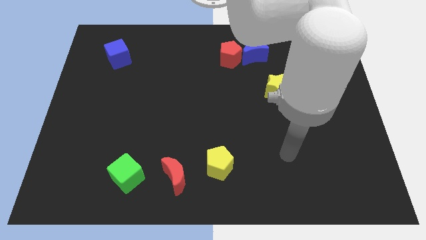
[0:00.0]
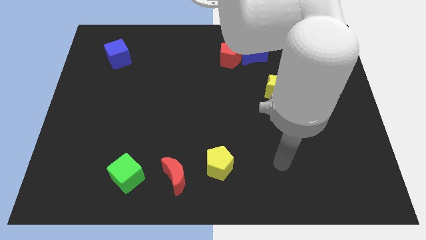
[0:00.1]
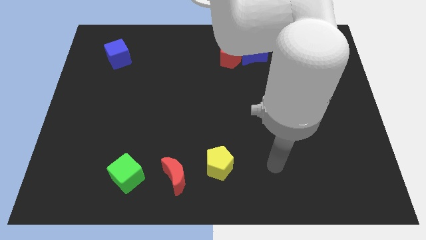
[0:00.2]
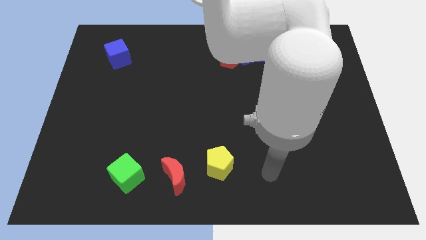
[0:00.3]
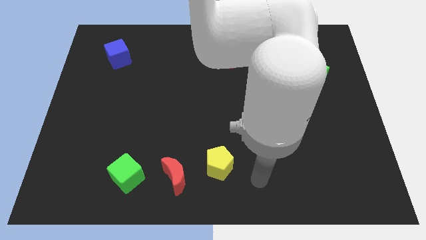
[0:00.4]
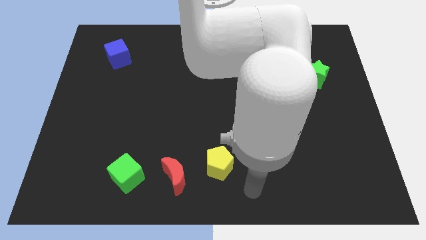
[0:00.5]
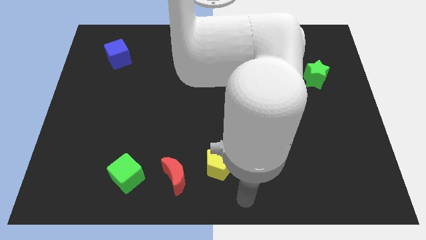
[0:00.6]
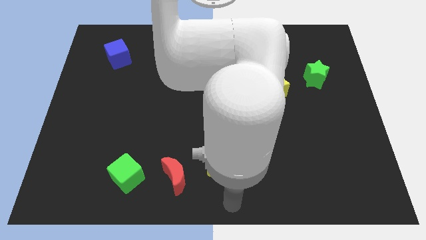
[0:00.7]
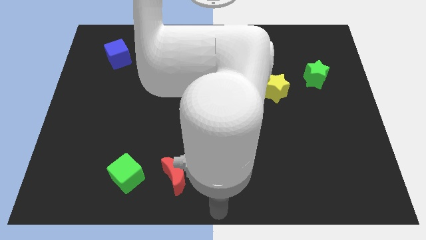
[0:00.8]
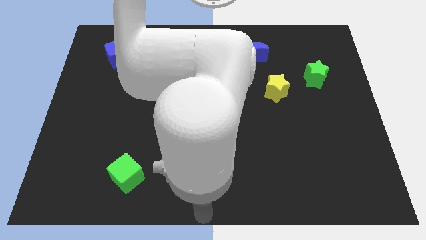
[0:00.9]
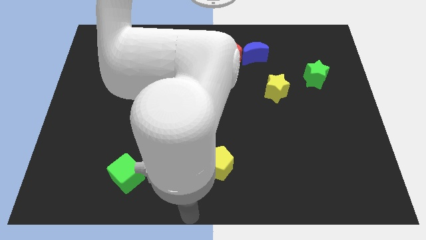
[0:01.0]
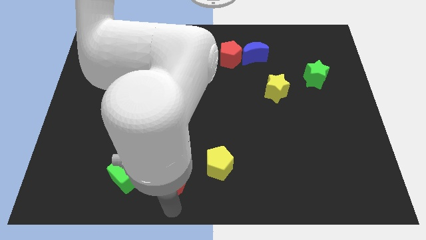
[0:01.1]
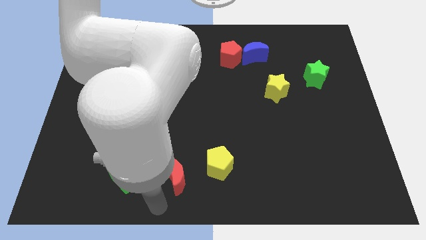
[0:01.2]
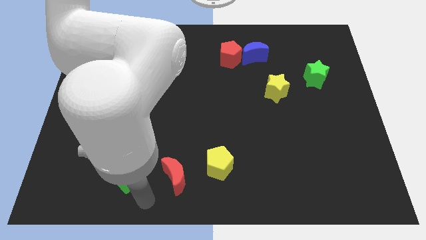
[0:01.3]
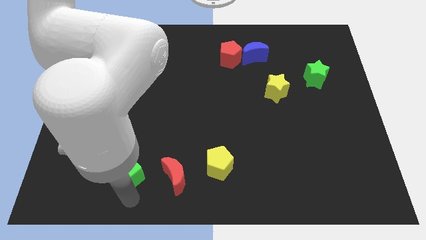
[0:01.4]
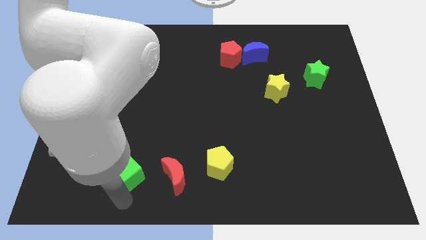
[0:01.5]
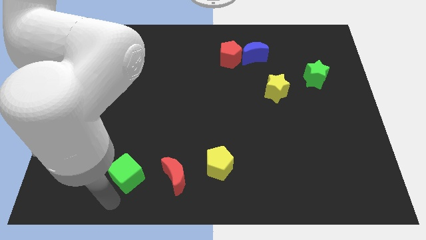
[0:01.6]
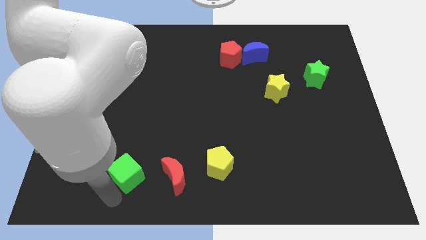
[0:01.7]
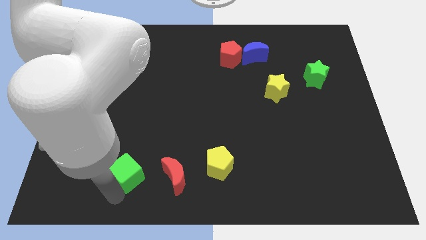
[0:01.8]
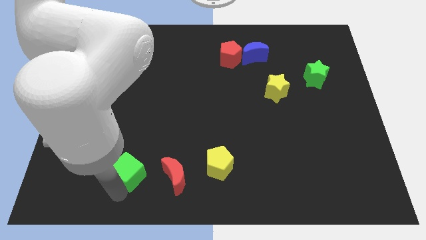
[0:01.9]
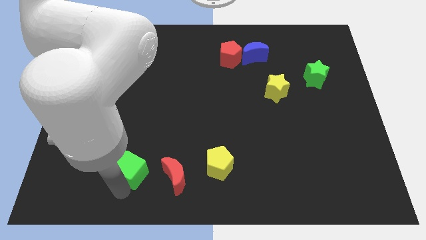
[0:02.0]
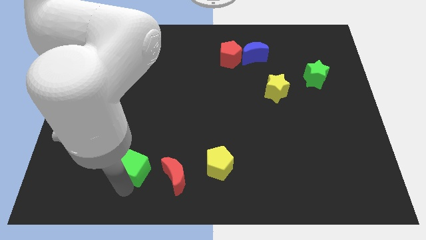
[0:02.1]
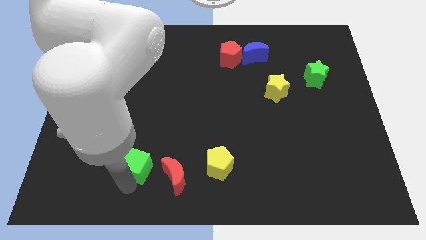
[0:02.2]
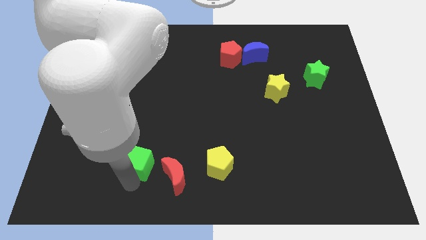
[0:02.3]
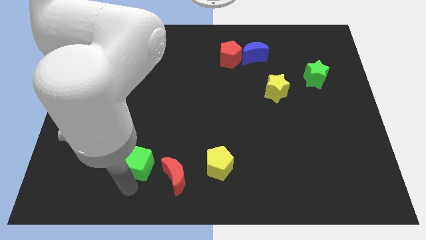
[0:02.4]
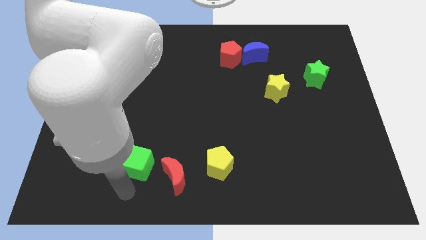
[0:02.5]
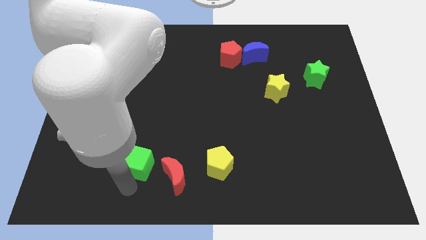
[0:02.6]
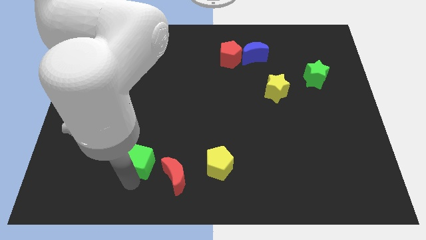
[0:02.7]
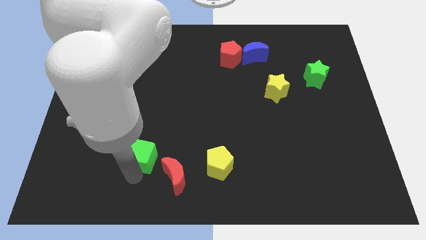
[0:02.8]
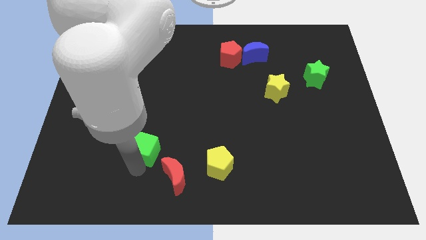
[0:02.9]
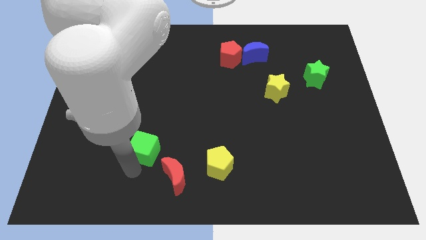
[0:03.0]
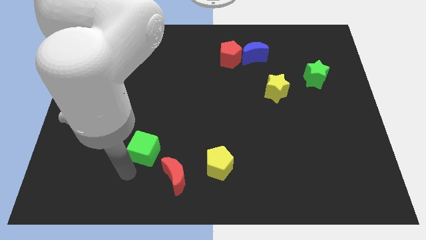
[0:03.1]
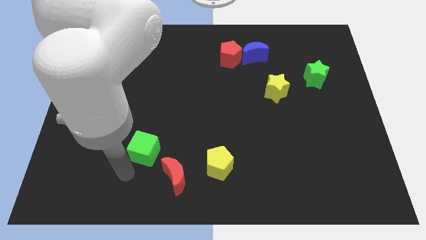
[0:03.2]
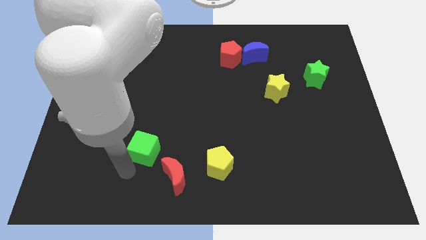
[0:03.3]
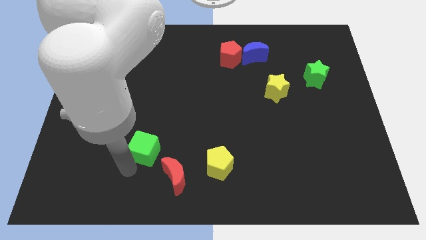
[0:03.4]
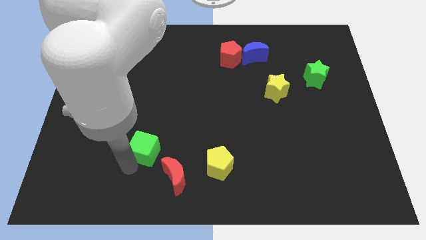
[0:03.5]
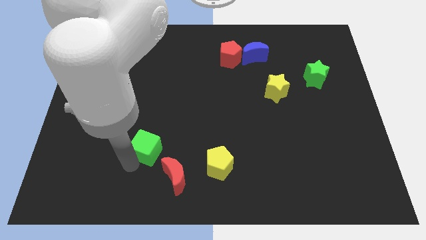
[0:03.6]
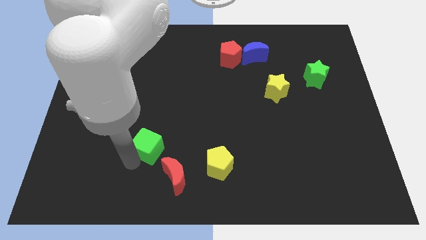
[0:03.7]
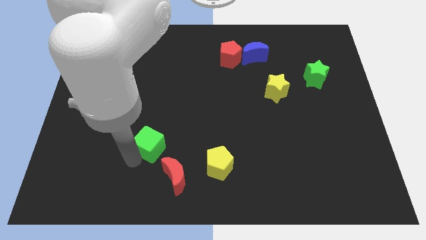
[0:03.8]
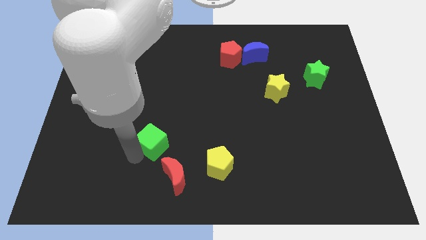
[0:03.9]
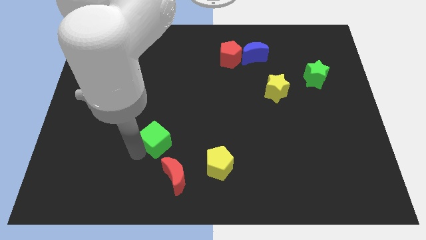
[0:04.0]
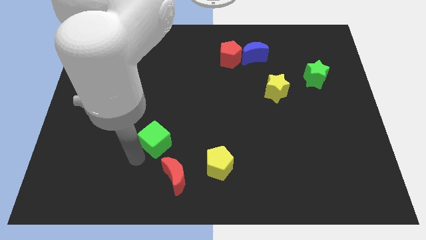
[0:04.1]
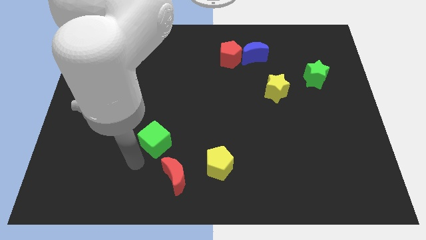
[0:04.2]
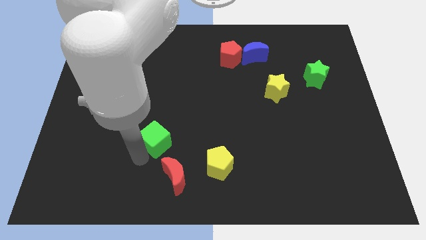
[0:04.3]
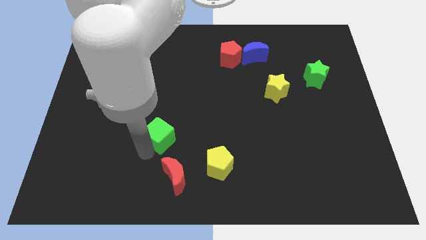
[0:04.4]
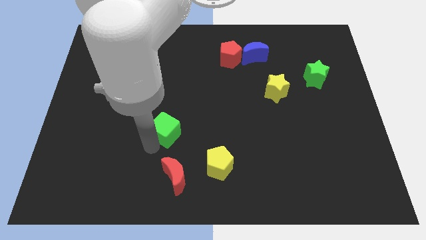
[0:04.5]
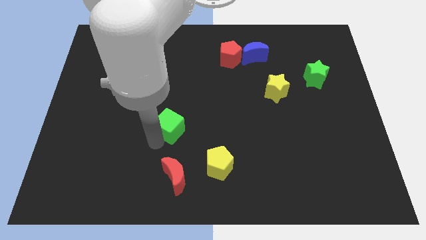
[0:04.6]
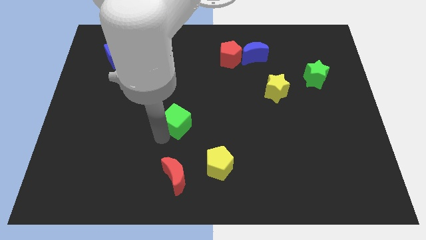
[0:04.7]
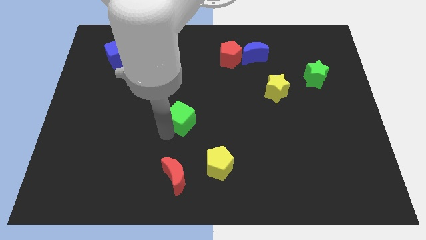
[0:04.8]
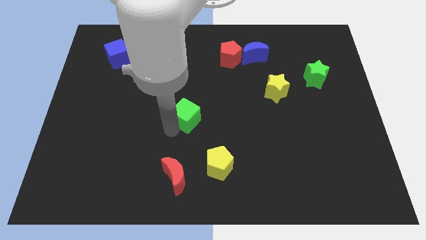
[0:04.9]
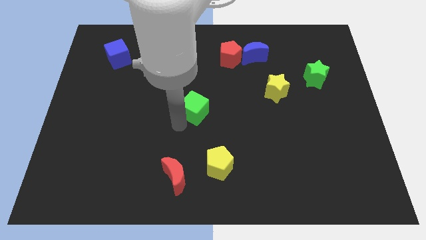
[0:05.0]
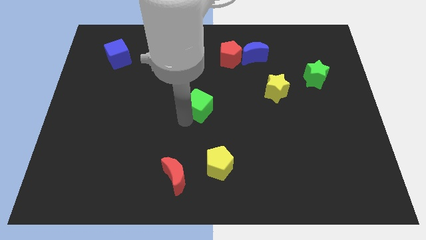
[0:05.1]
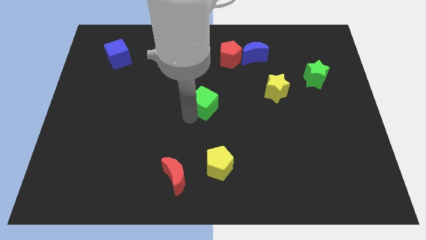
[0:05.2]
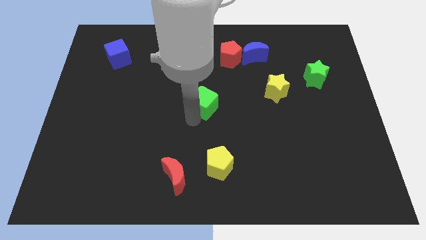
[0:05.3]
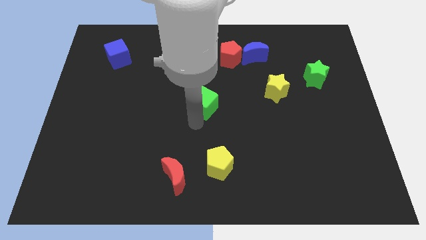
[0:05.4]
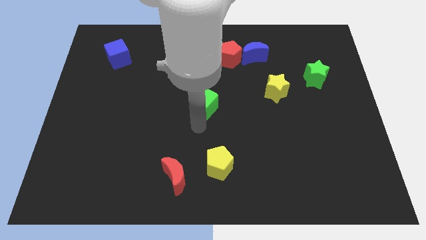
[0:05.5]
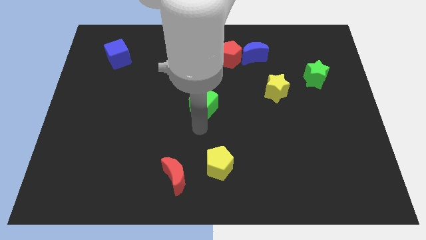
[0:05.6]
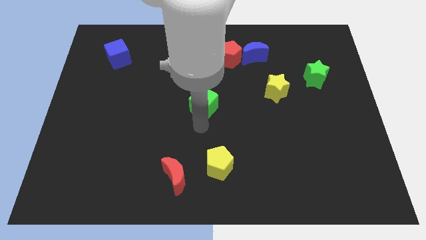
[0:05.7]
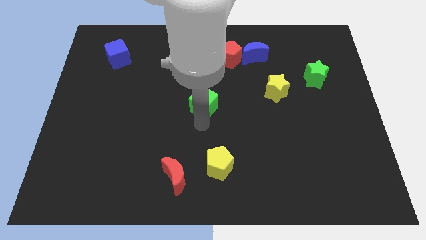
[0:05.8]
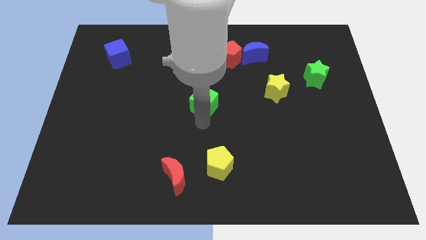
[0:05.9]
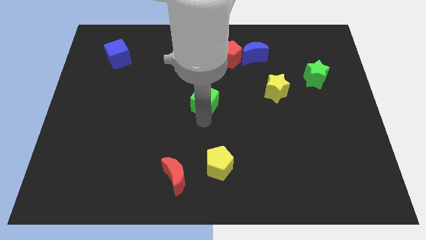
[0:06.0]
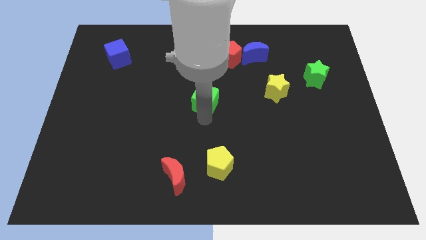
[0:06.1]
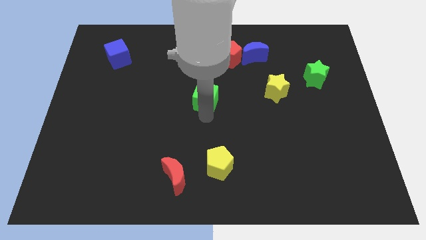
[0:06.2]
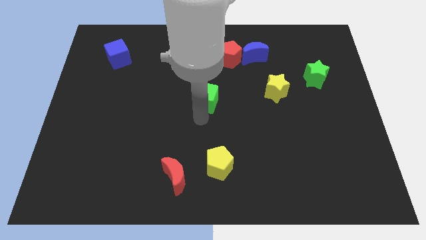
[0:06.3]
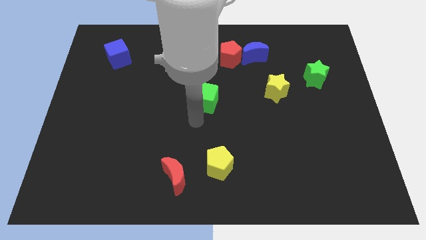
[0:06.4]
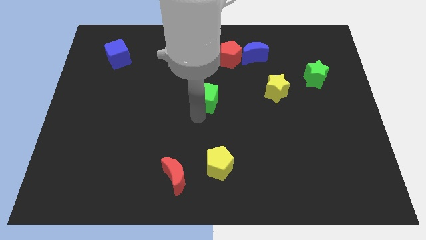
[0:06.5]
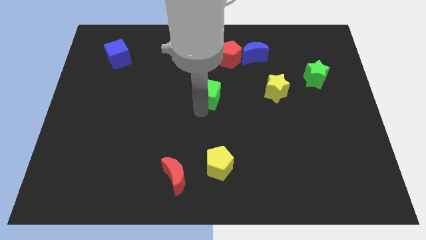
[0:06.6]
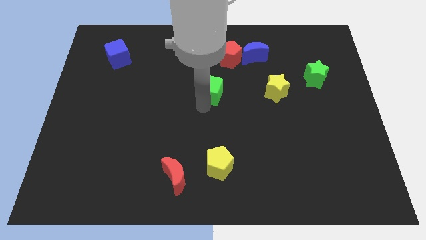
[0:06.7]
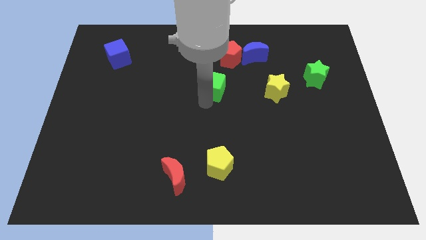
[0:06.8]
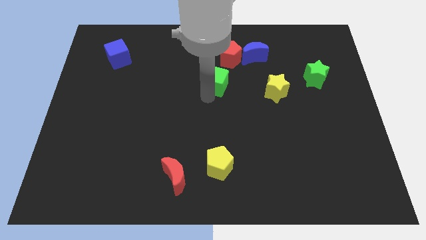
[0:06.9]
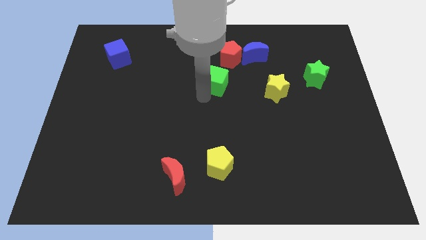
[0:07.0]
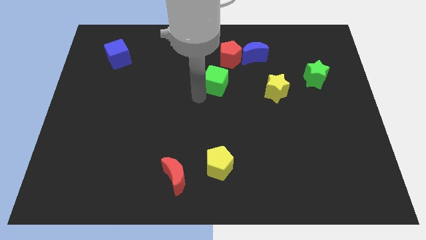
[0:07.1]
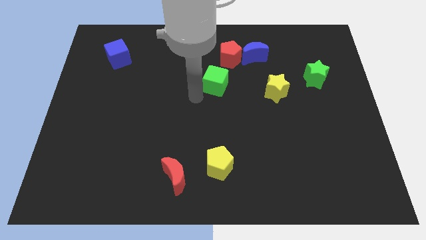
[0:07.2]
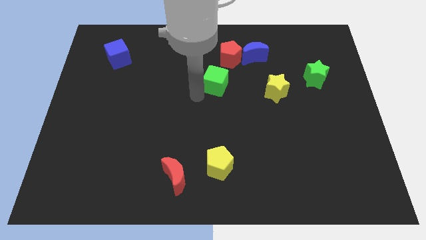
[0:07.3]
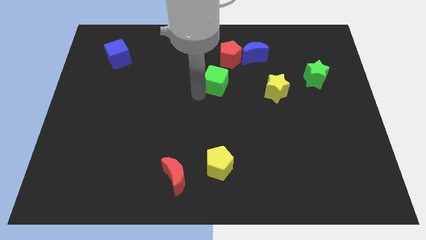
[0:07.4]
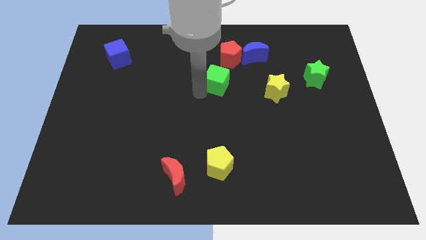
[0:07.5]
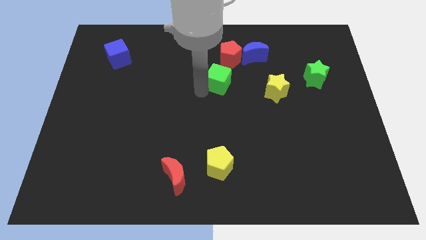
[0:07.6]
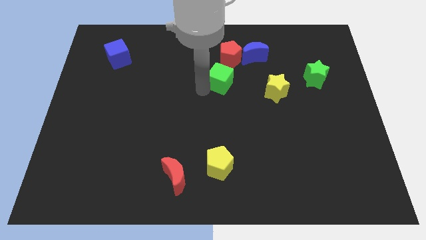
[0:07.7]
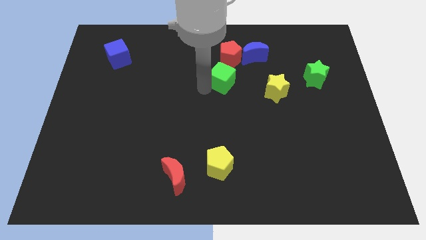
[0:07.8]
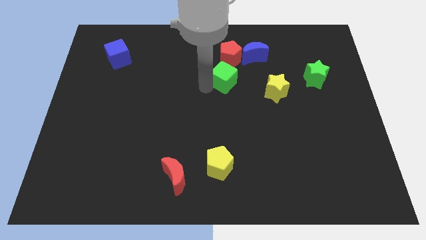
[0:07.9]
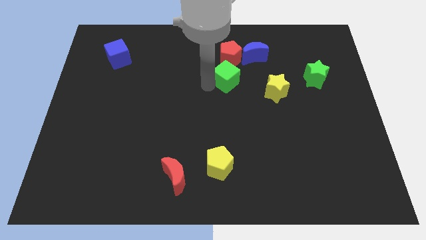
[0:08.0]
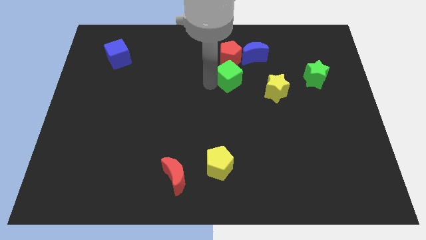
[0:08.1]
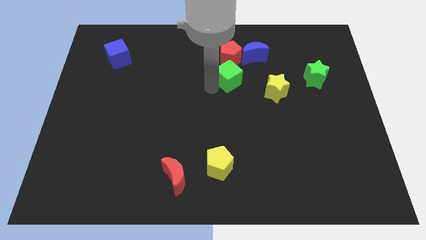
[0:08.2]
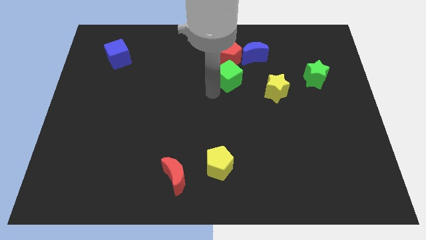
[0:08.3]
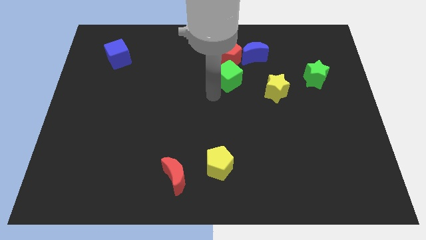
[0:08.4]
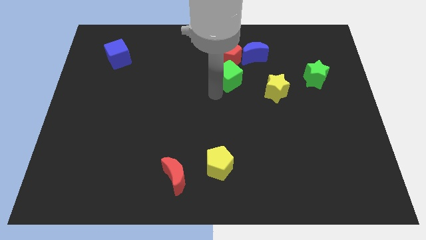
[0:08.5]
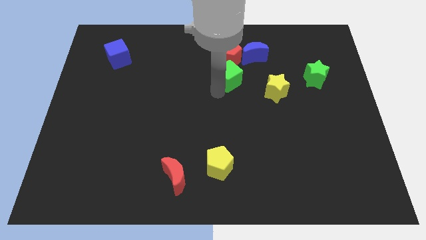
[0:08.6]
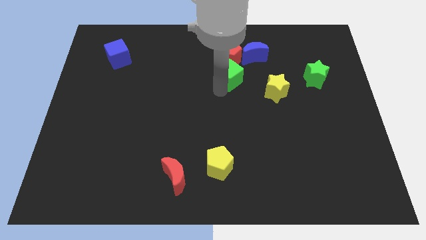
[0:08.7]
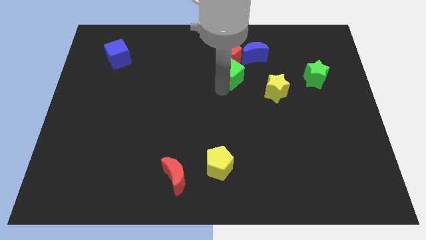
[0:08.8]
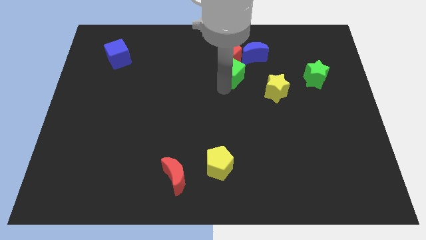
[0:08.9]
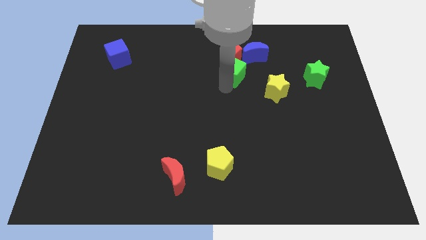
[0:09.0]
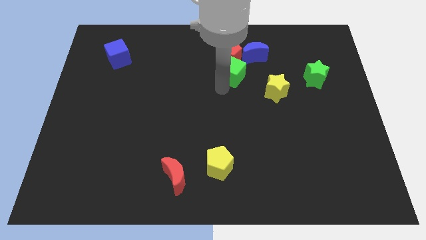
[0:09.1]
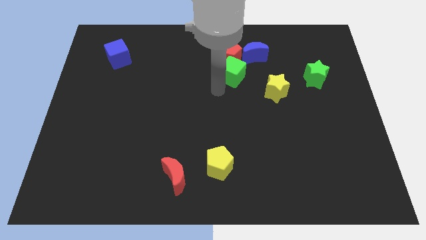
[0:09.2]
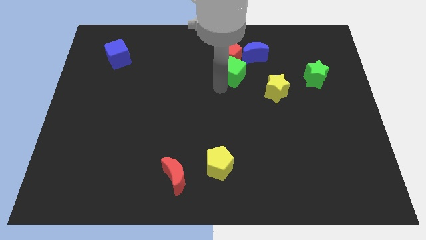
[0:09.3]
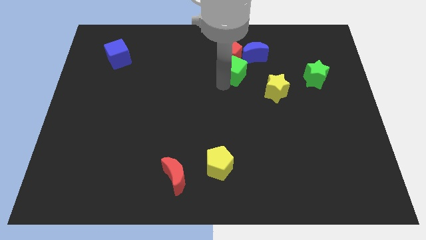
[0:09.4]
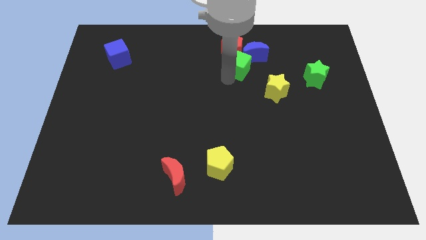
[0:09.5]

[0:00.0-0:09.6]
put the green cube close to the blue moon
